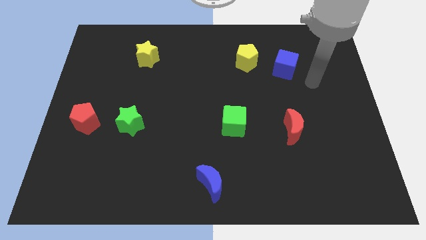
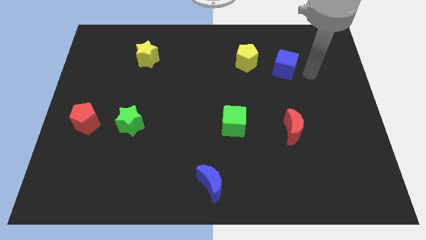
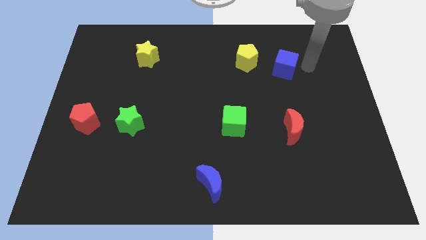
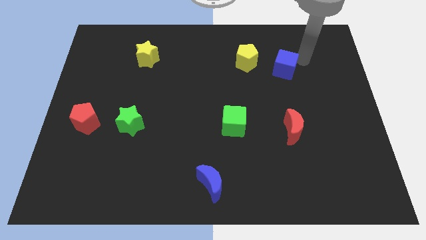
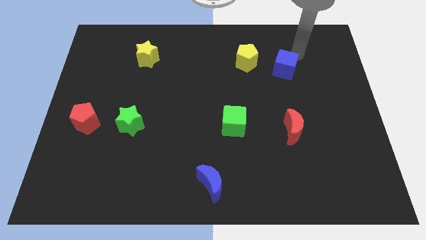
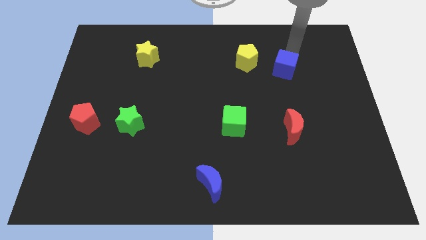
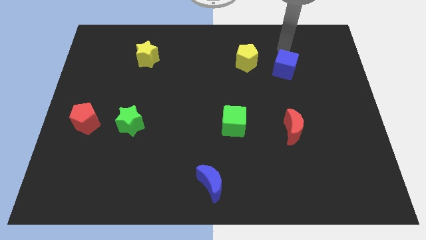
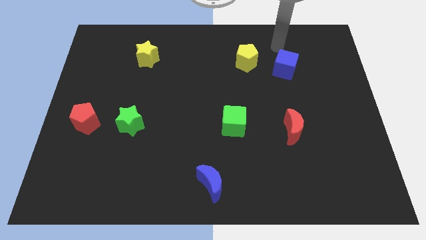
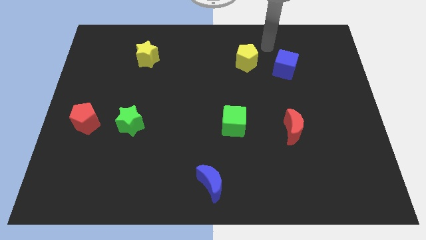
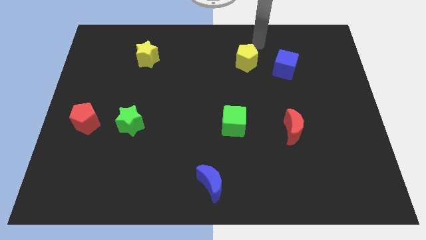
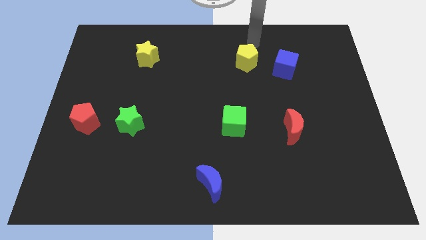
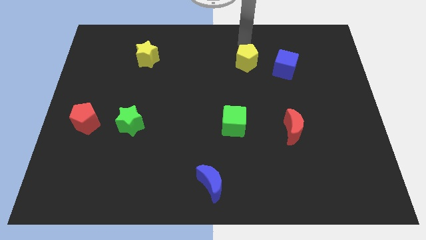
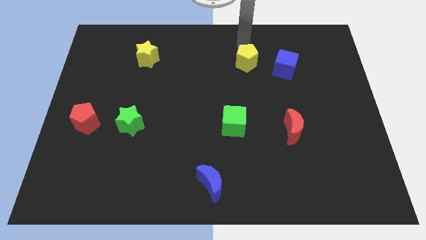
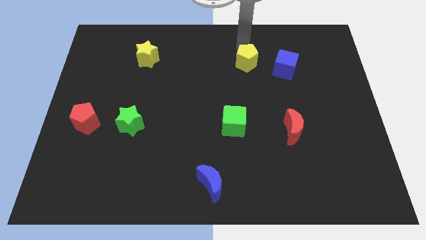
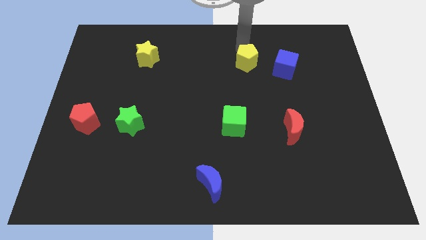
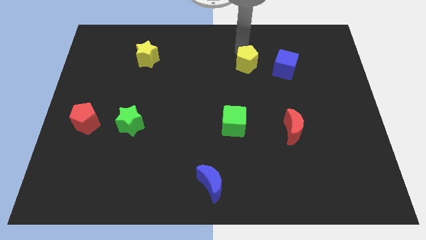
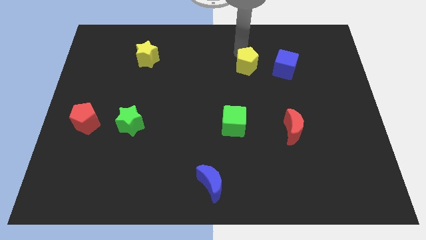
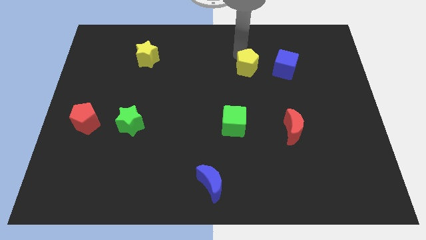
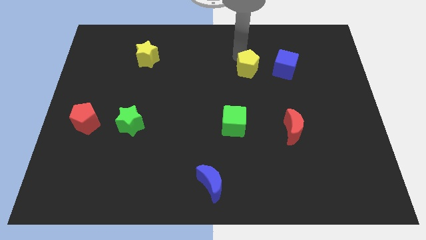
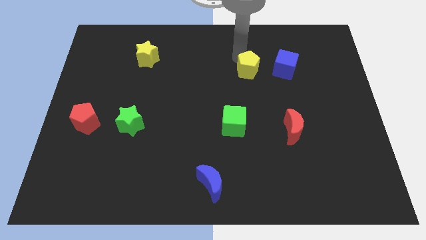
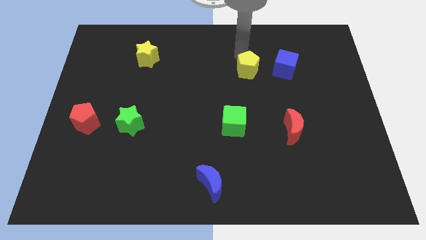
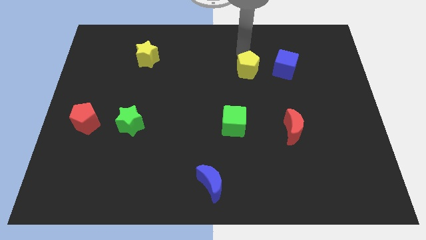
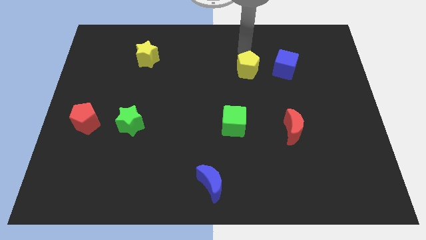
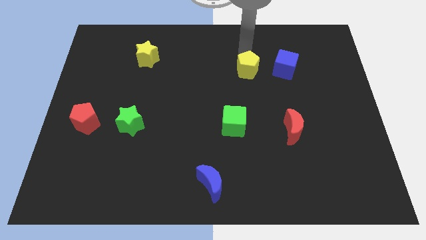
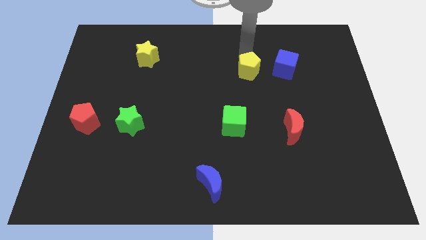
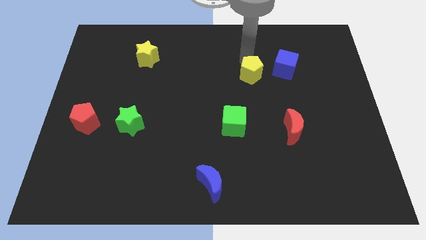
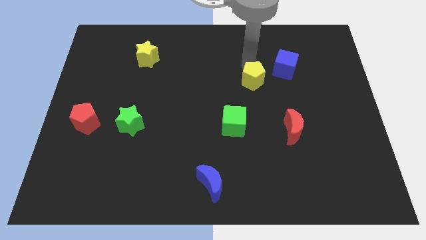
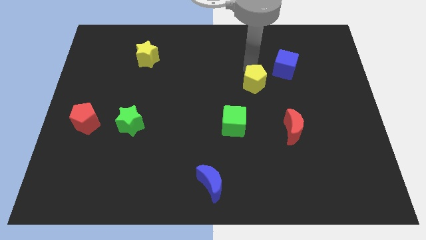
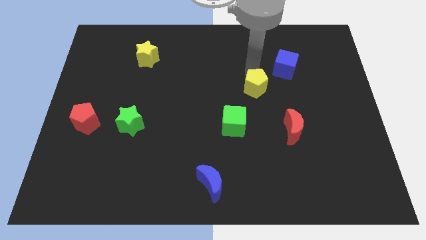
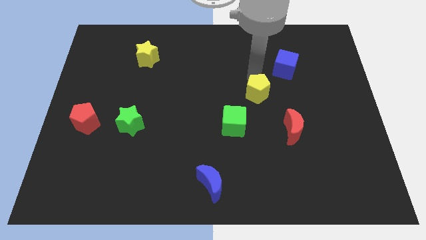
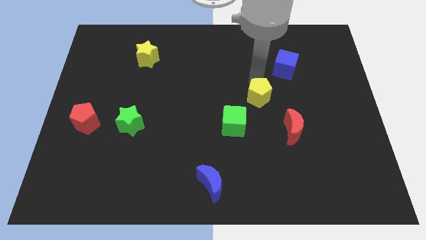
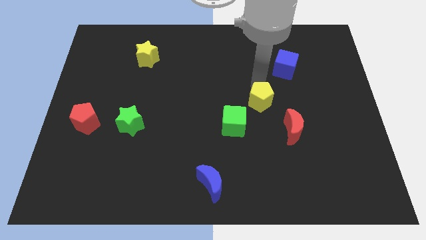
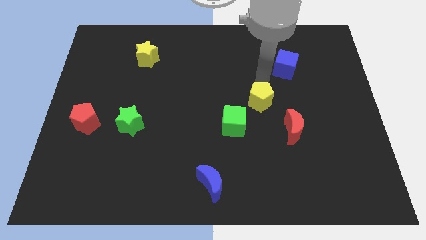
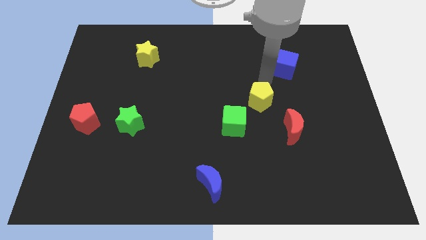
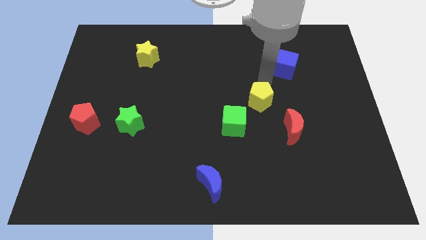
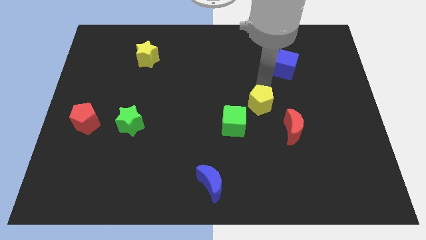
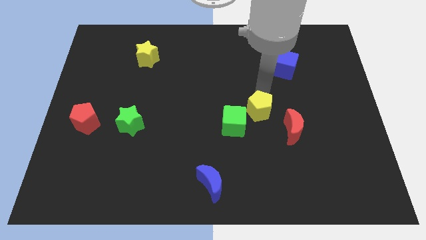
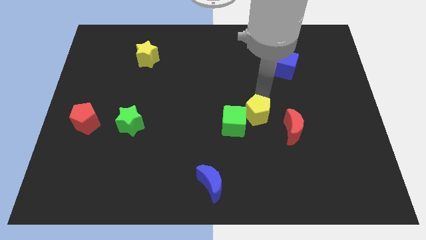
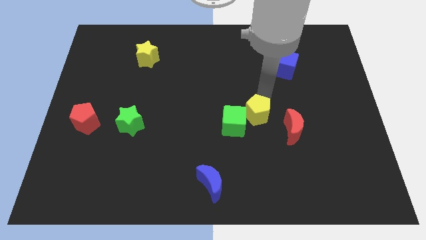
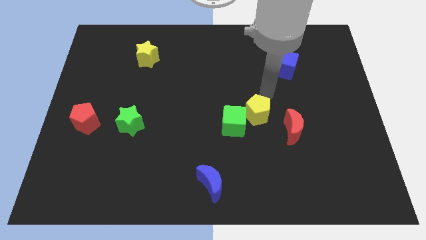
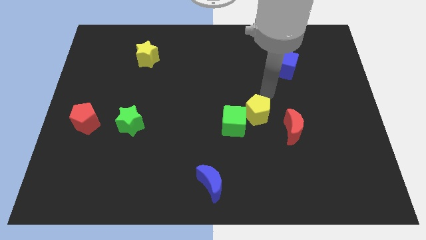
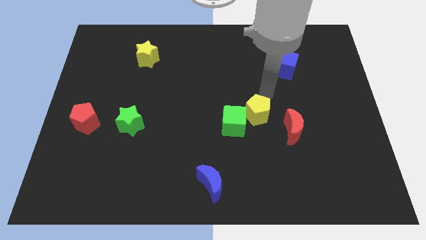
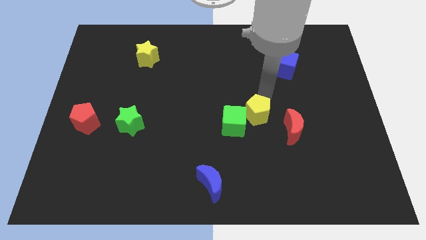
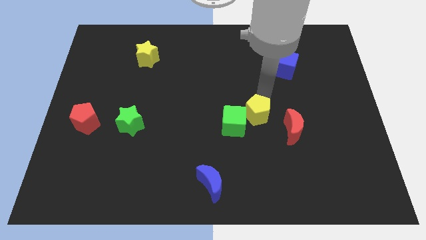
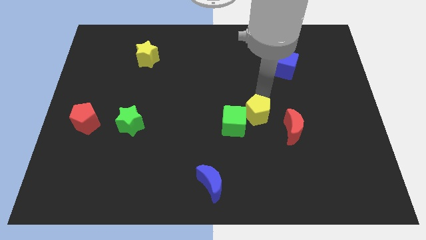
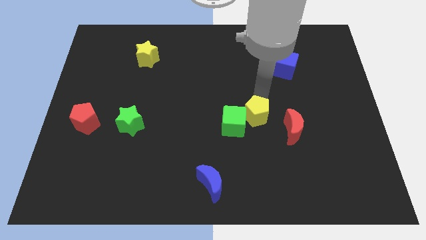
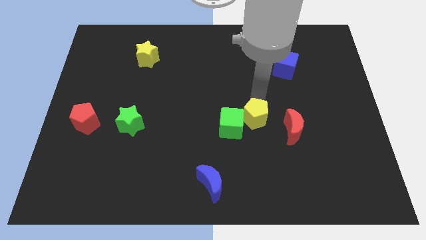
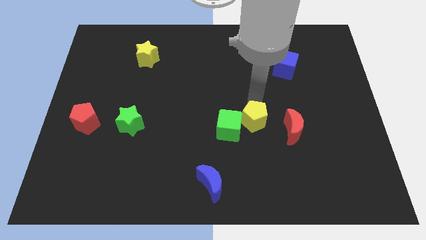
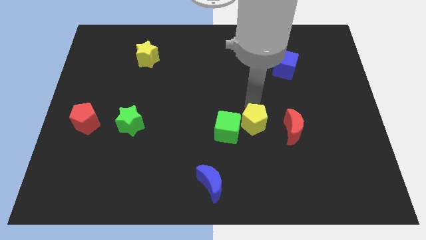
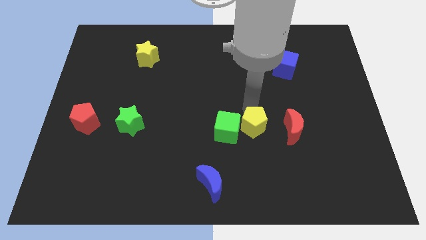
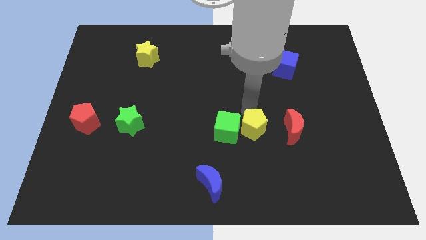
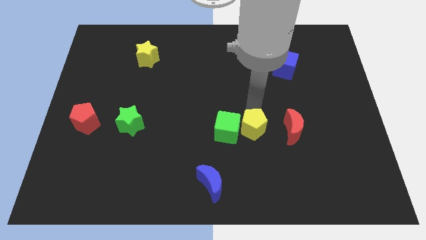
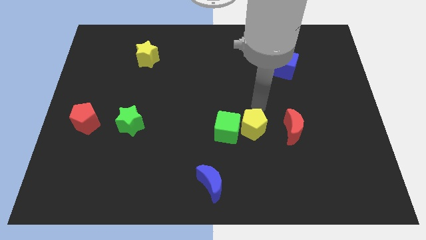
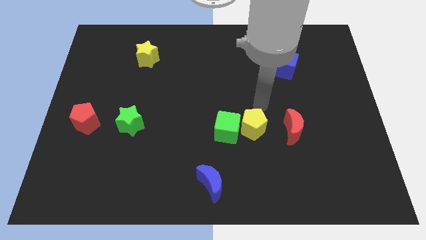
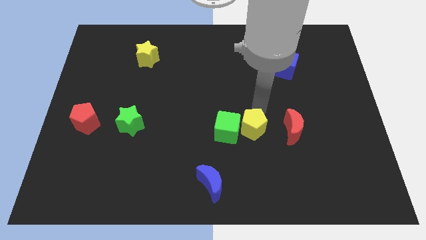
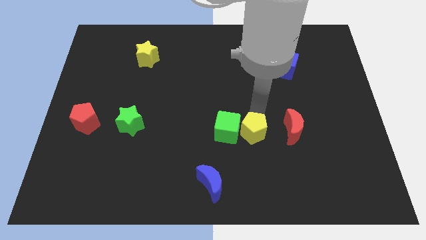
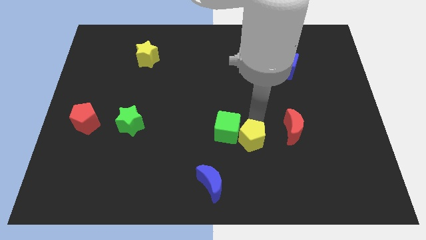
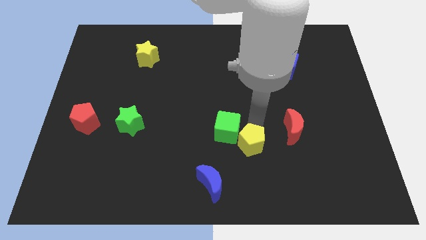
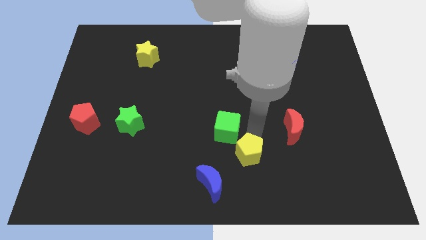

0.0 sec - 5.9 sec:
put the yellow pentagon to the bottom side of the green cube

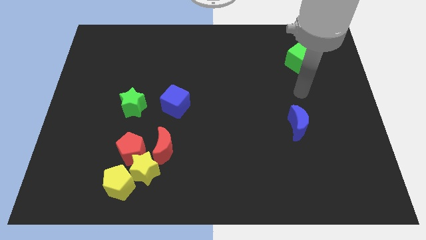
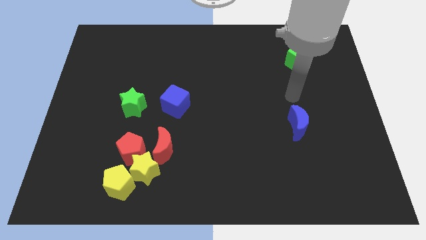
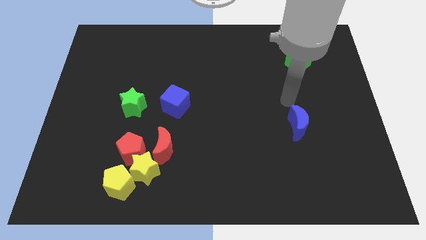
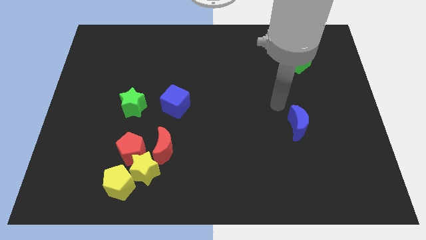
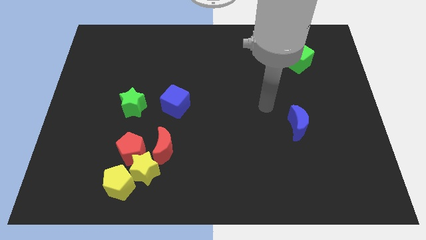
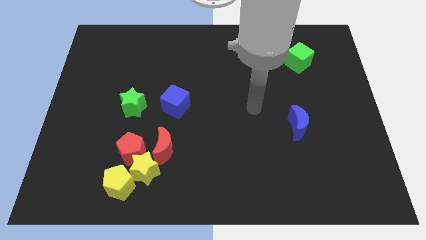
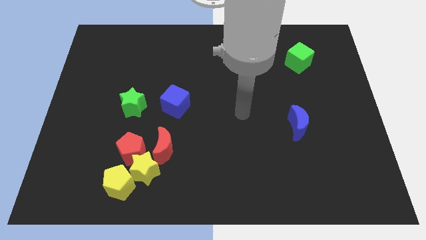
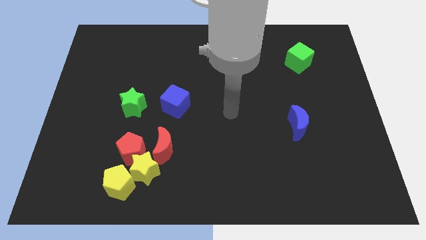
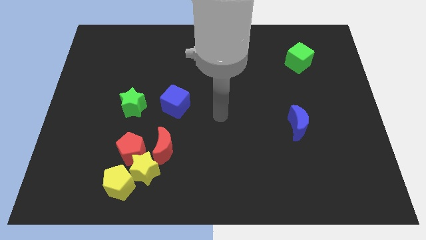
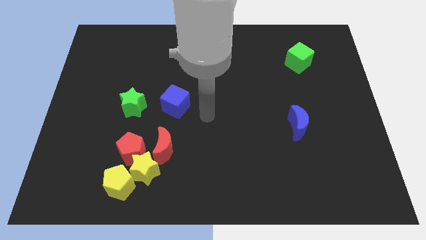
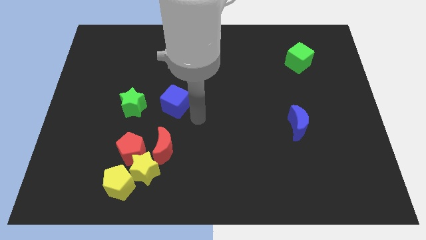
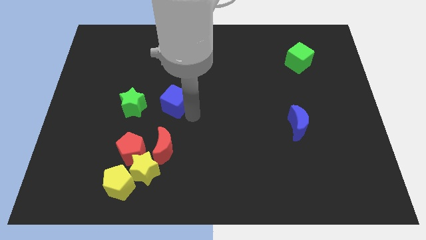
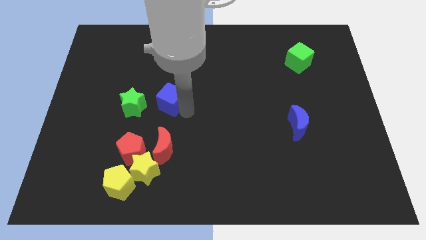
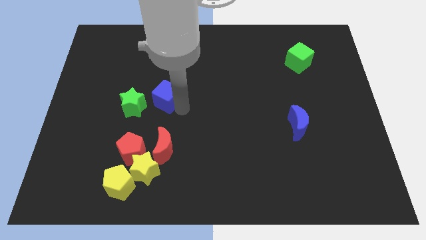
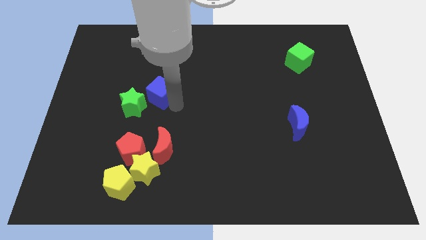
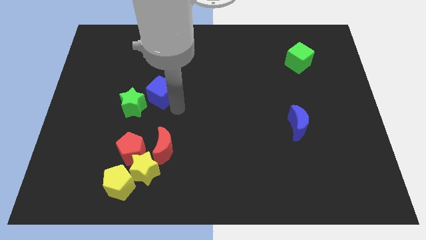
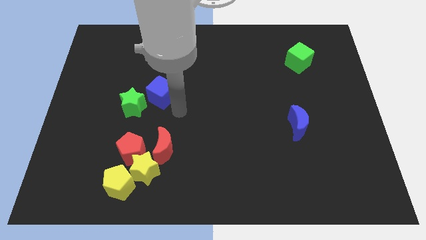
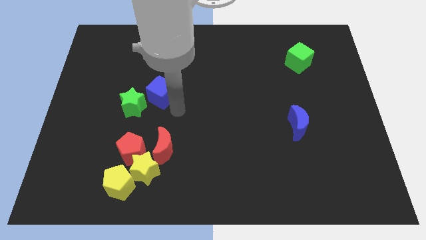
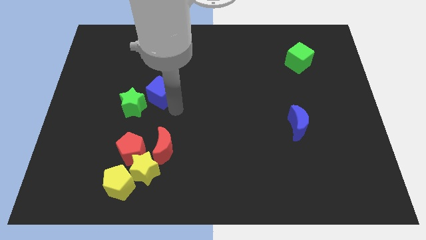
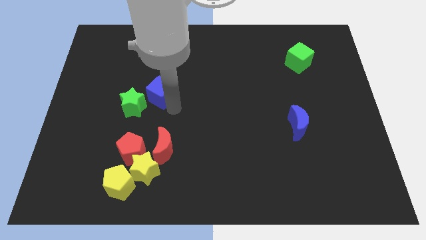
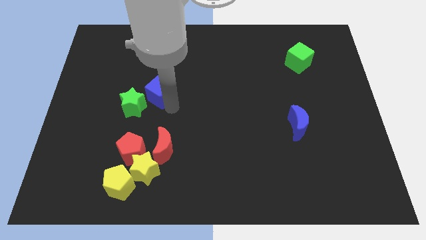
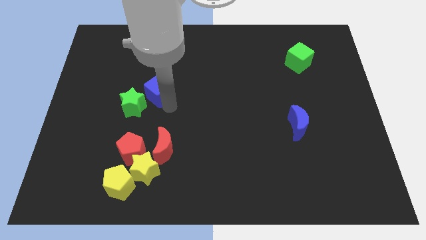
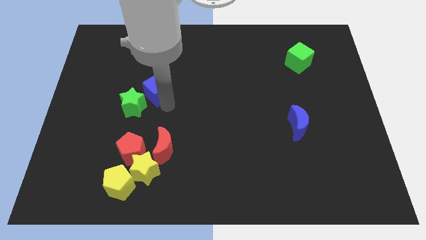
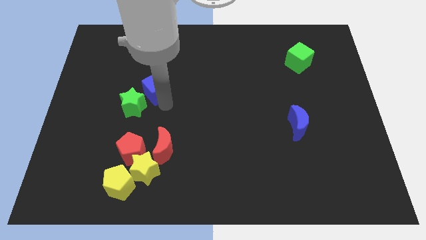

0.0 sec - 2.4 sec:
put the blue cube to the top of the green star
